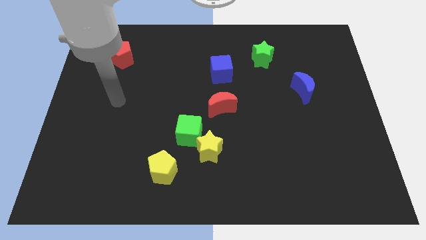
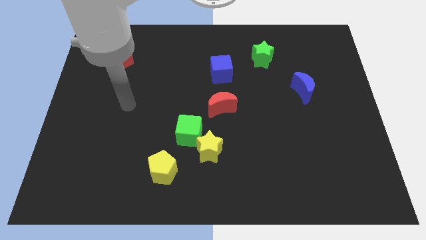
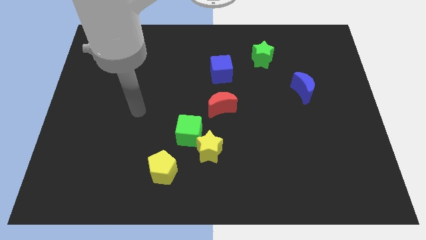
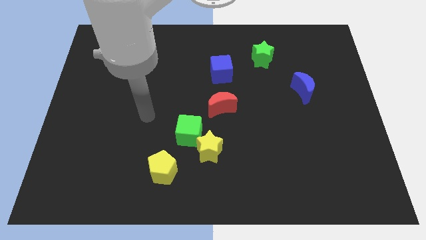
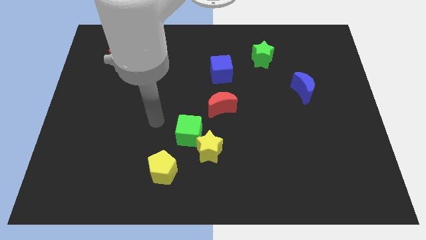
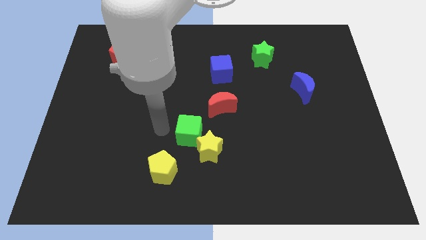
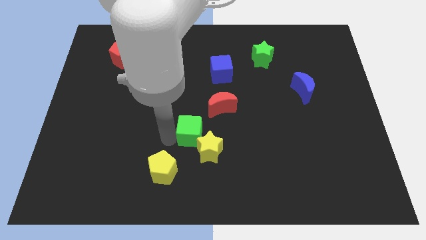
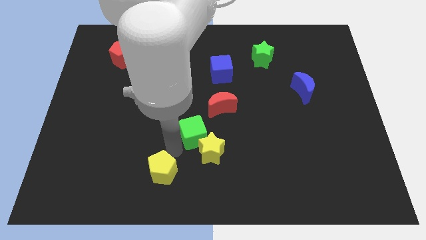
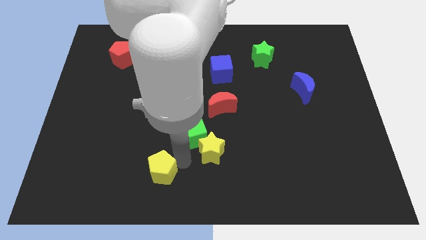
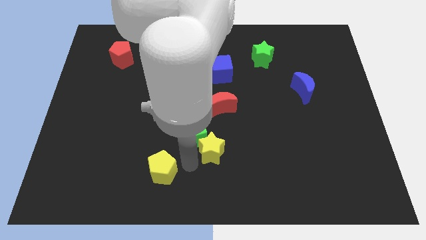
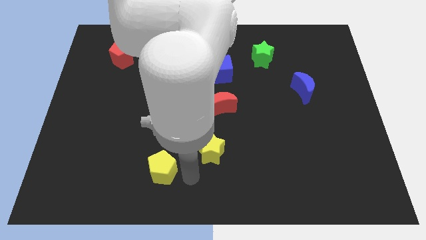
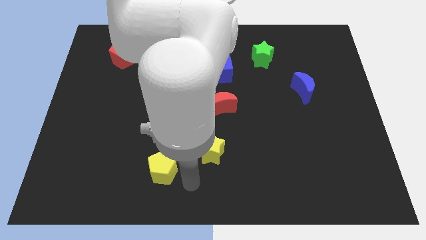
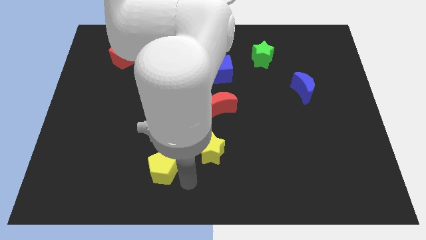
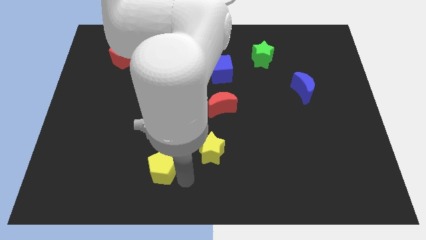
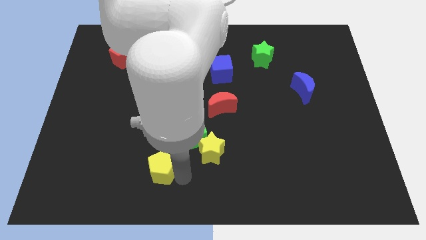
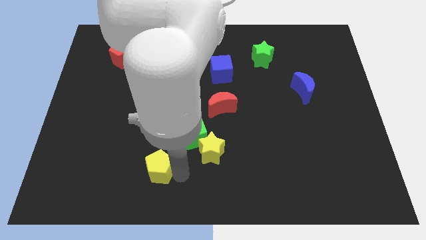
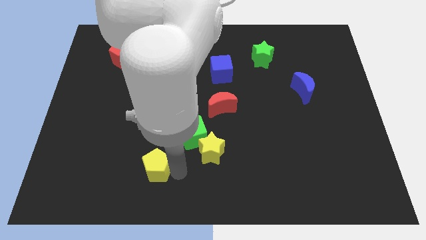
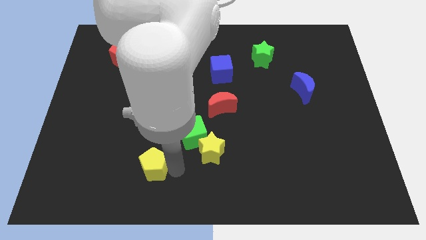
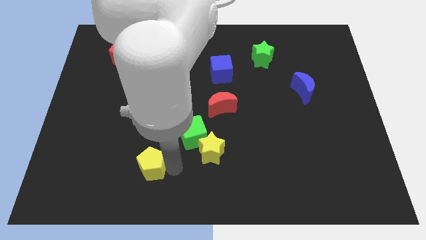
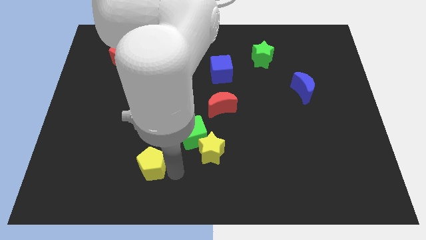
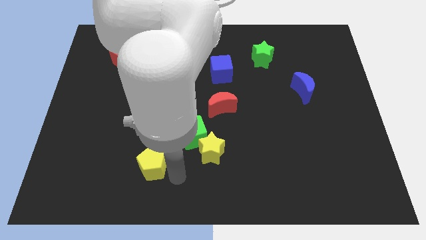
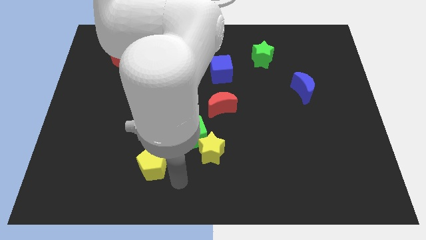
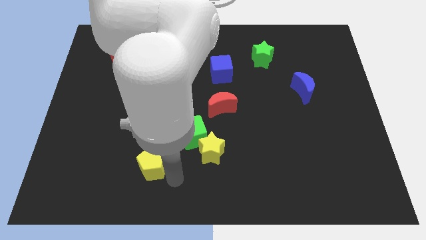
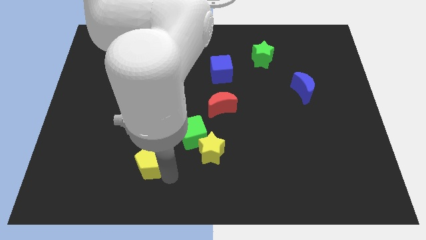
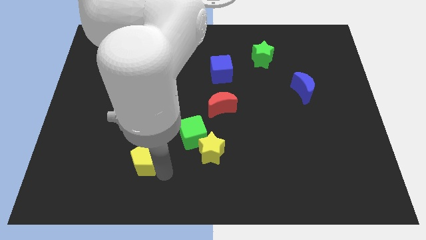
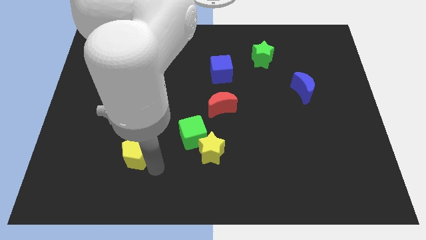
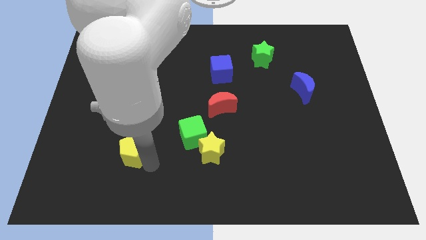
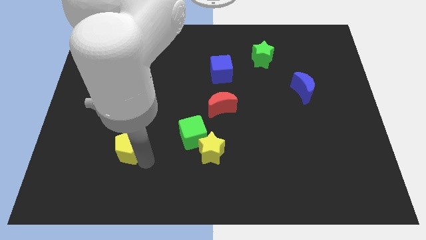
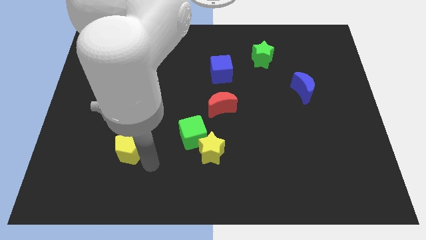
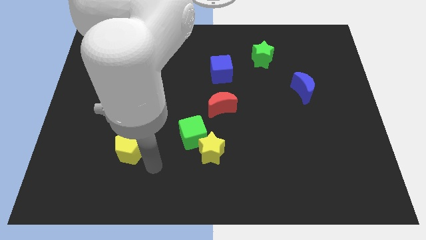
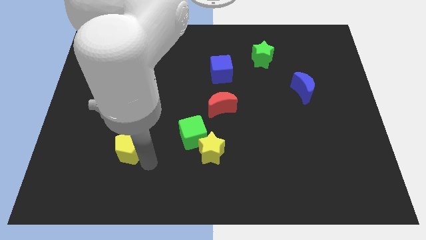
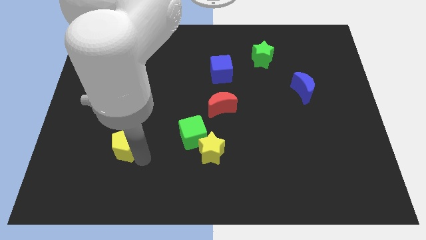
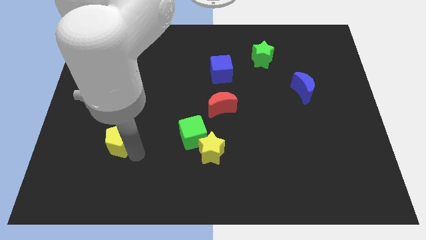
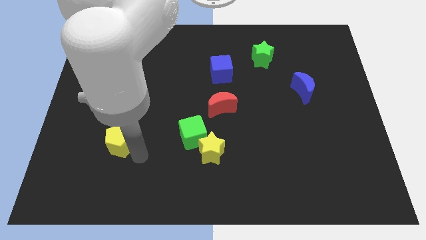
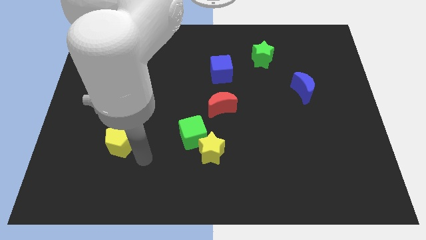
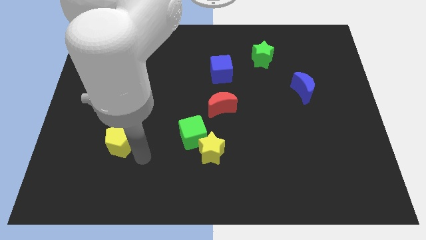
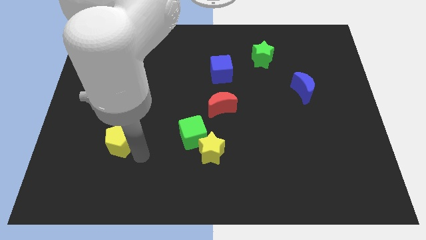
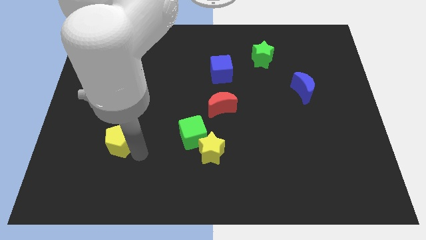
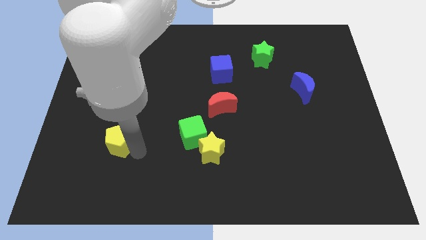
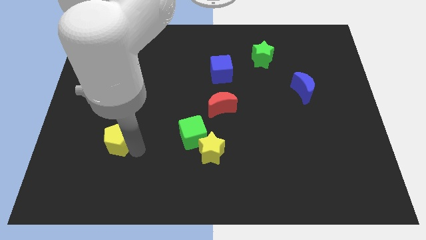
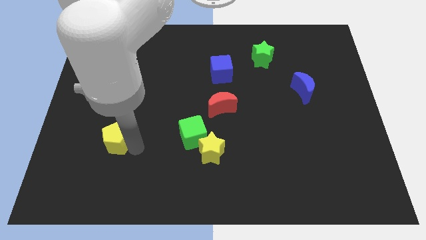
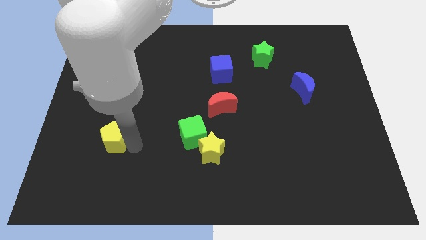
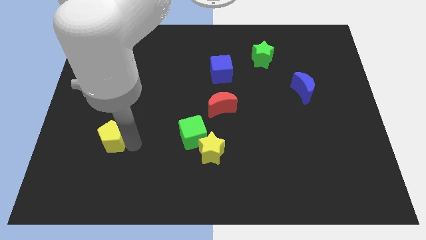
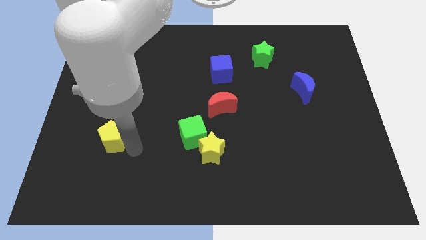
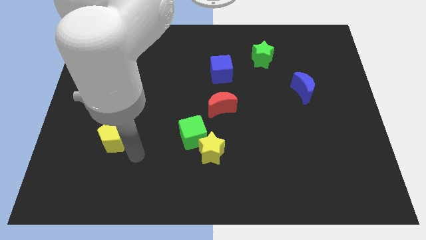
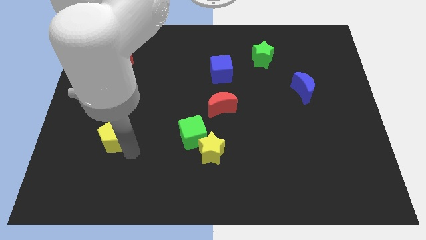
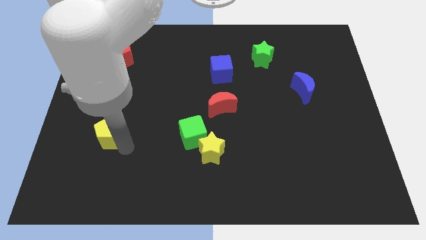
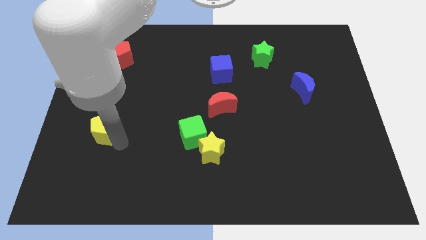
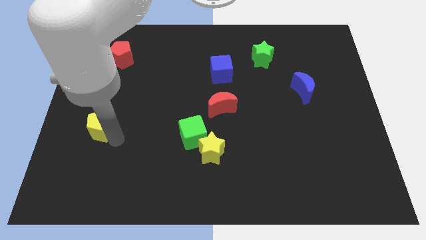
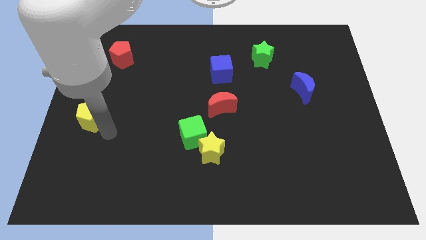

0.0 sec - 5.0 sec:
slide the yellow pentagon to the center left

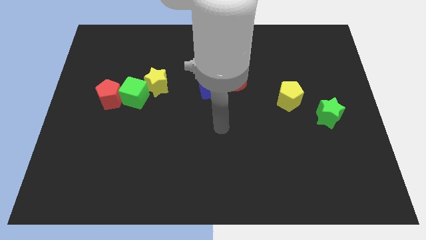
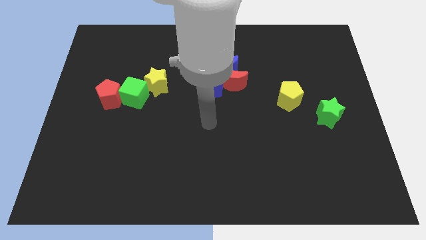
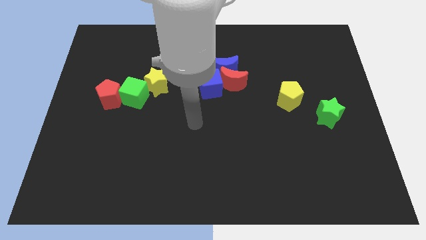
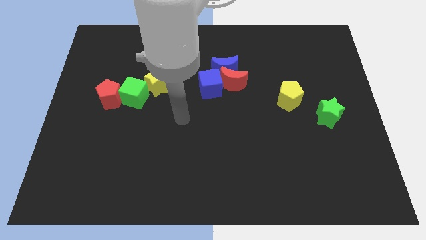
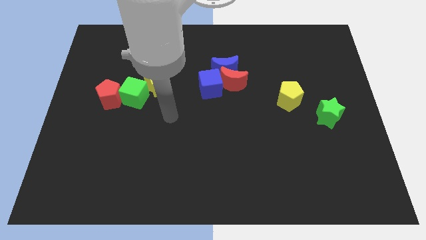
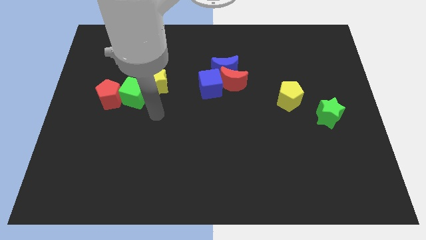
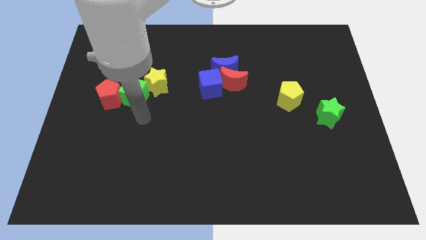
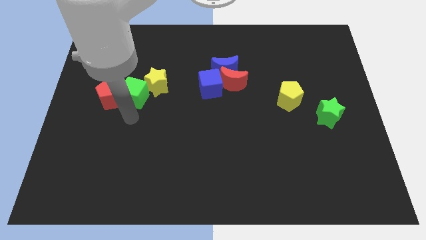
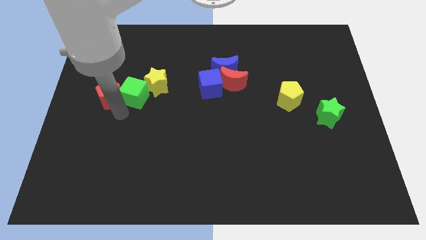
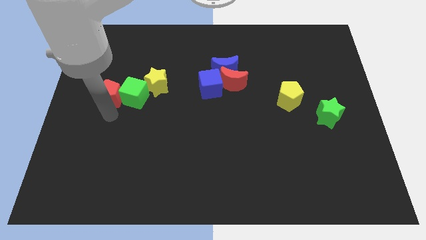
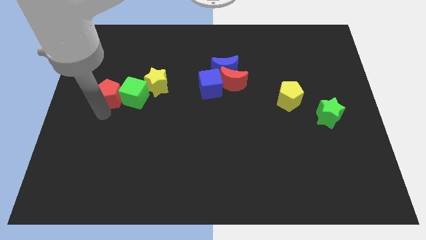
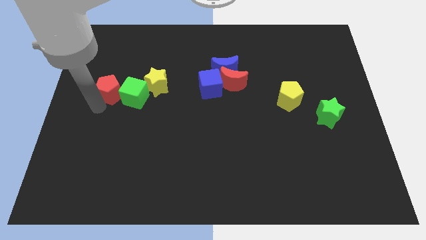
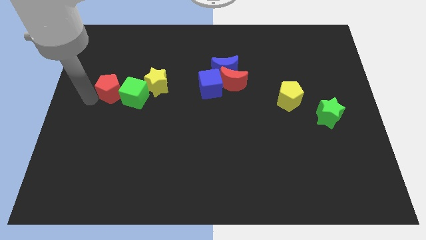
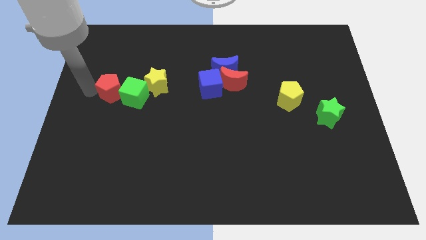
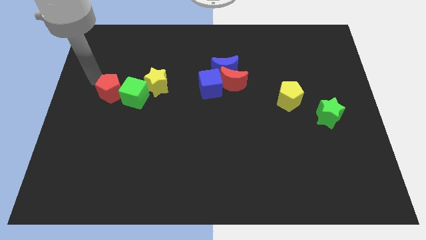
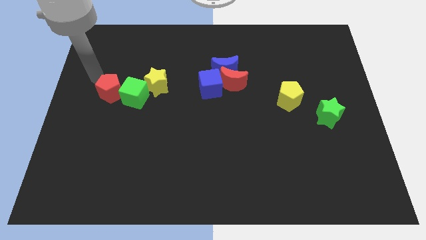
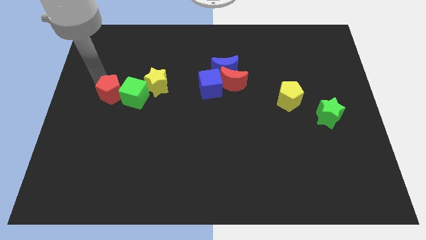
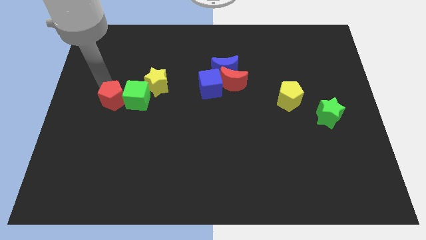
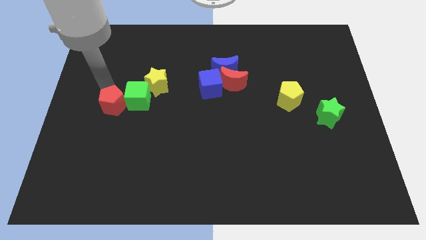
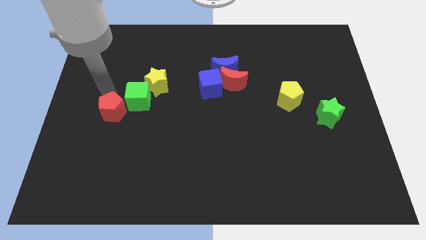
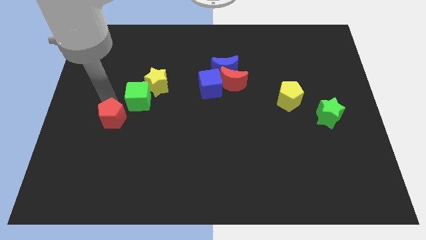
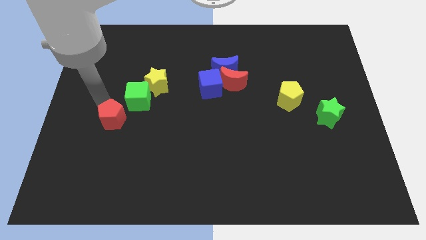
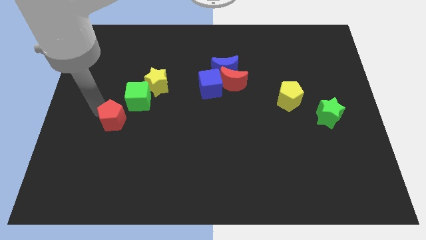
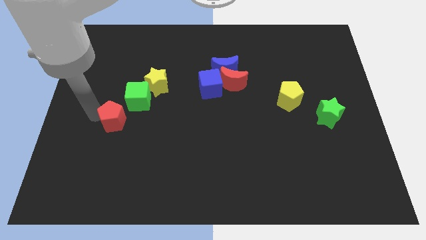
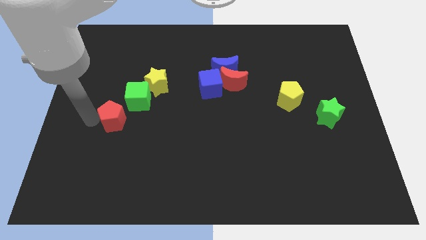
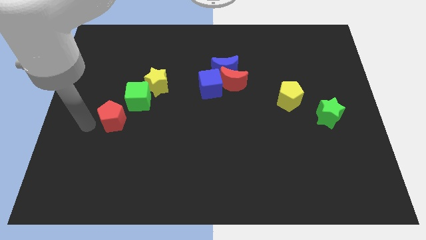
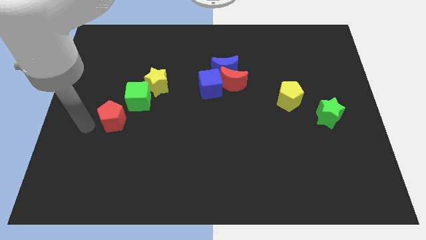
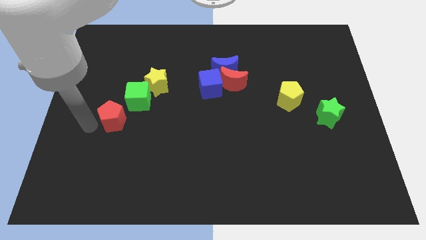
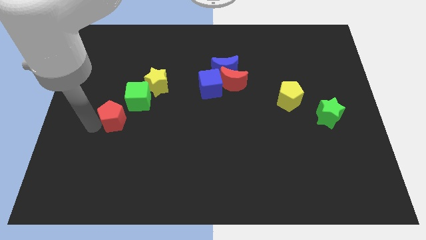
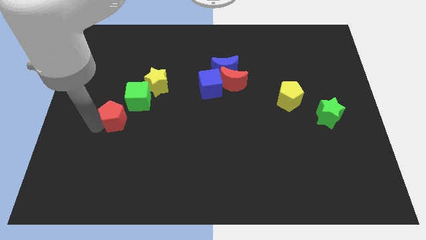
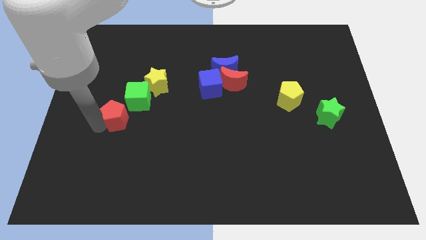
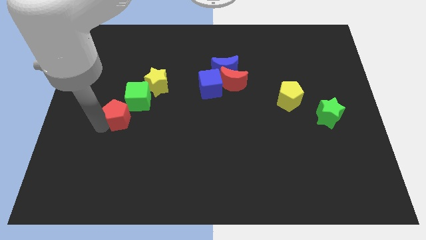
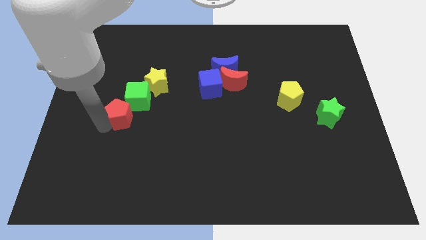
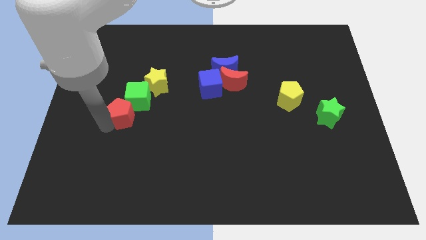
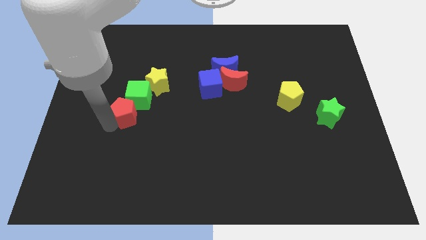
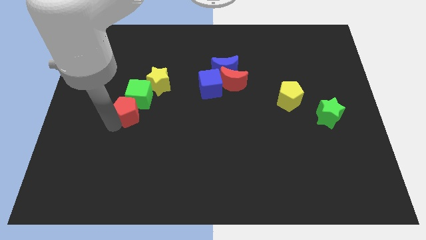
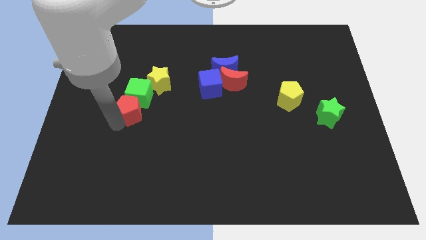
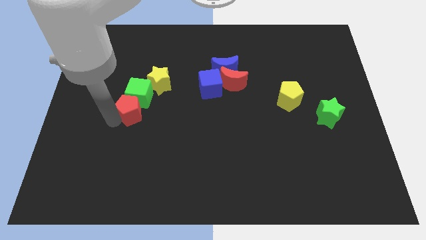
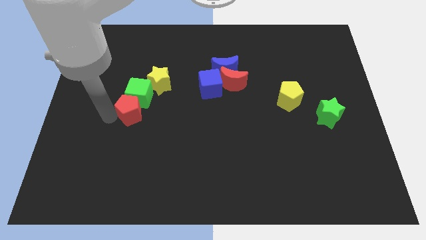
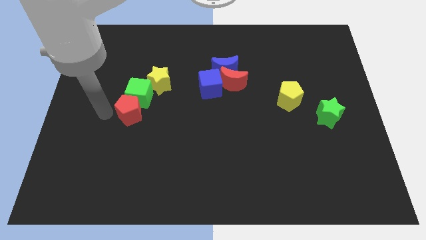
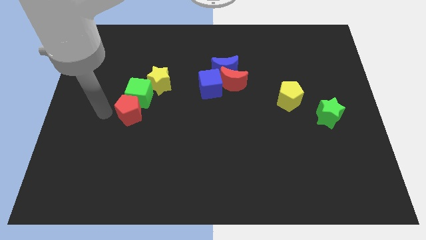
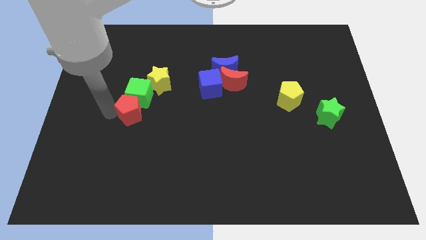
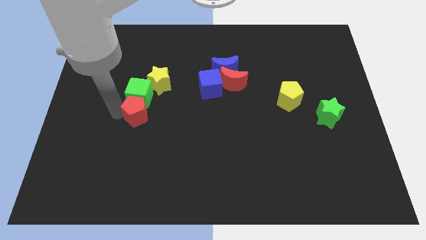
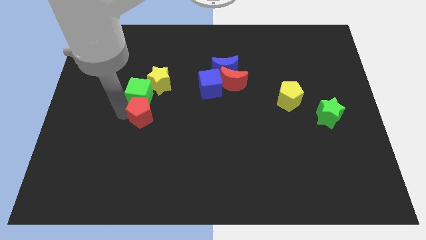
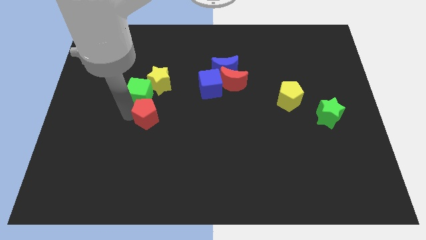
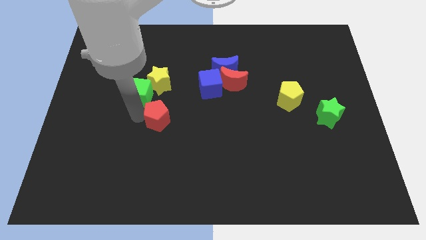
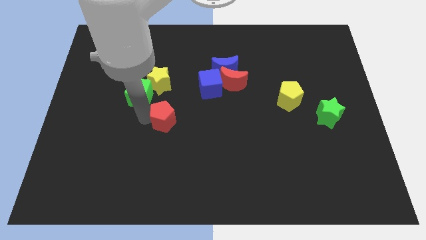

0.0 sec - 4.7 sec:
put the red pentagon to the middle
